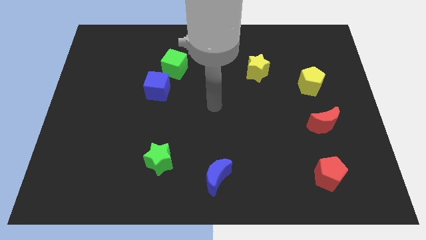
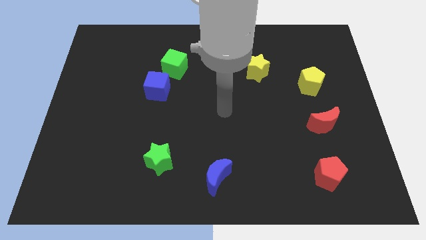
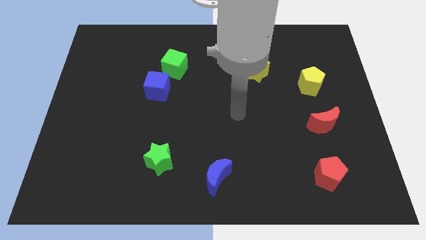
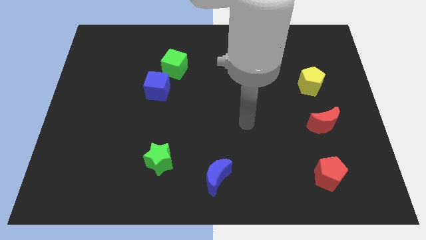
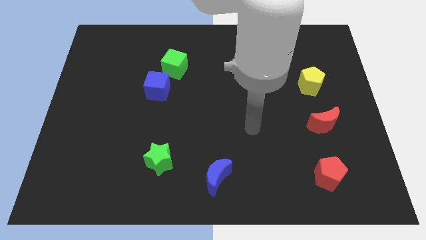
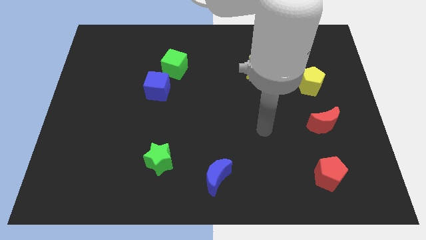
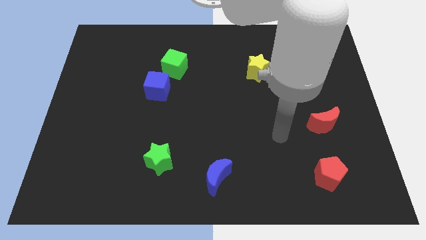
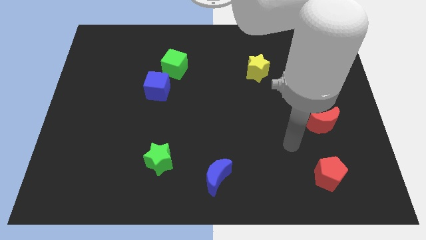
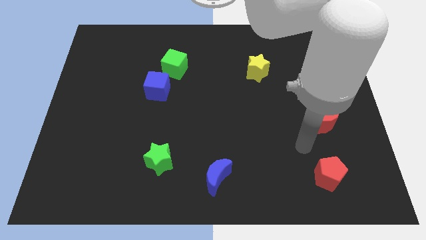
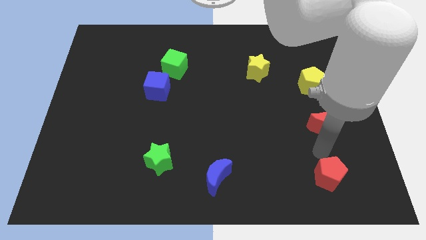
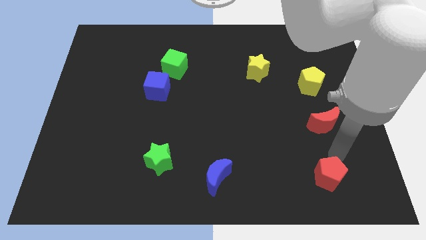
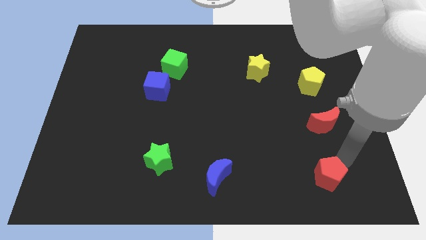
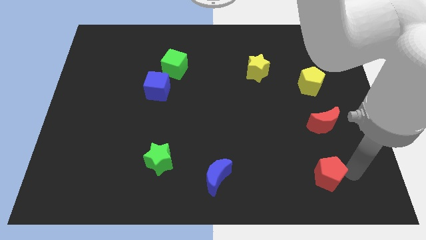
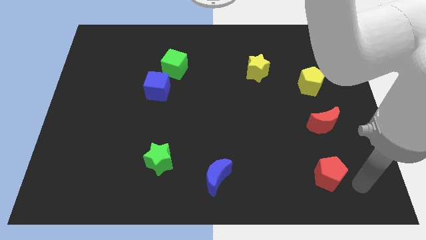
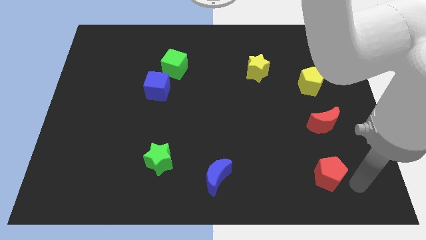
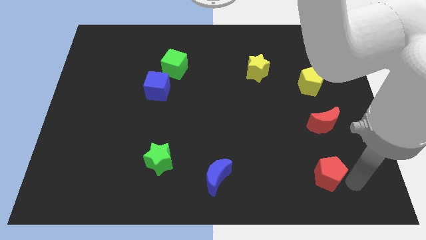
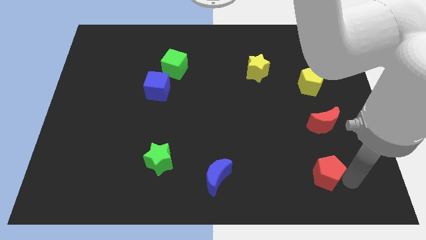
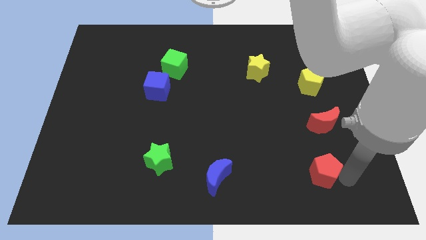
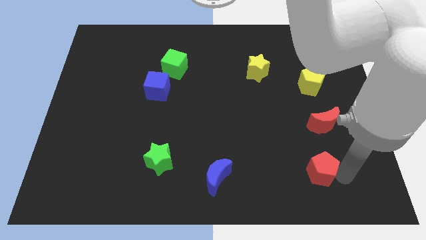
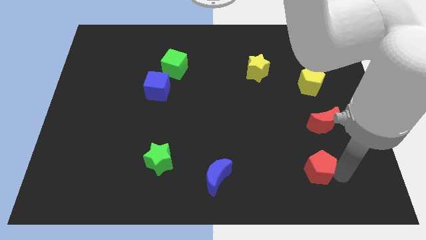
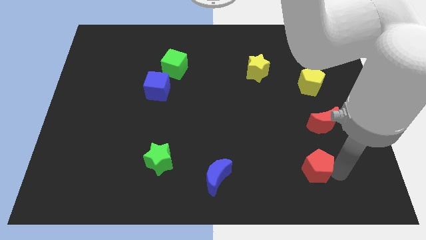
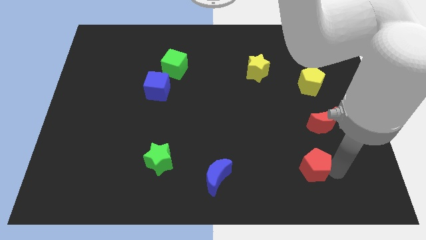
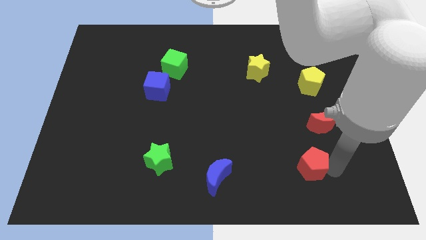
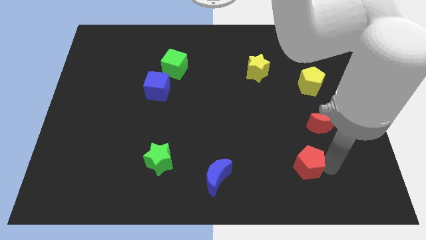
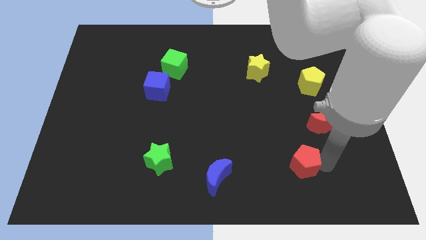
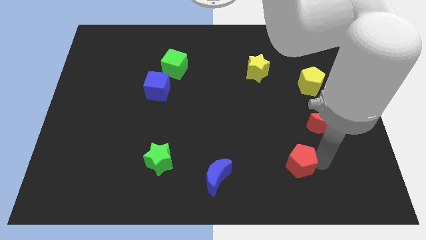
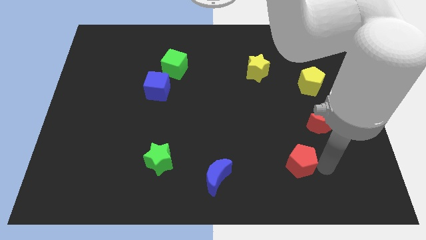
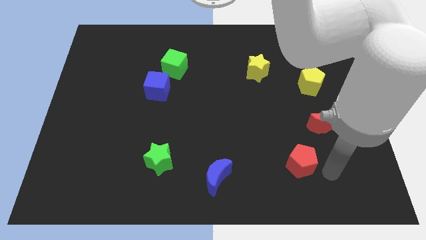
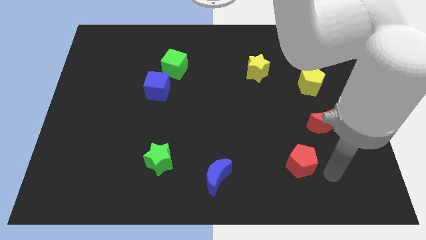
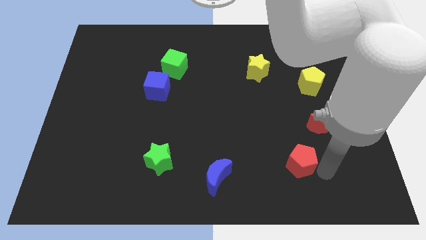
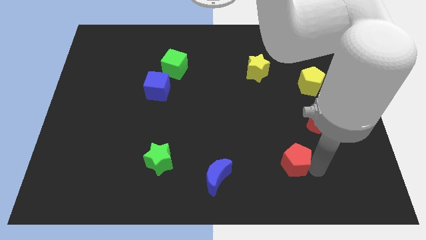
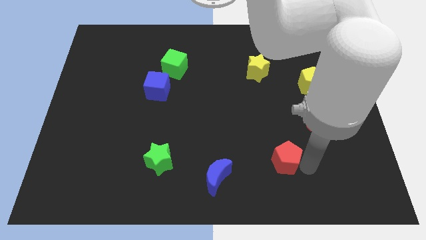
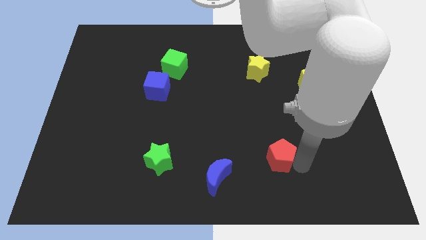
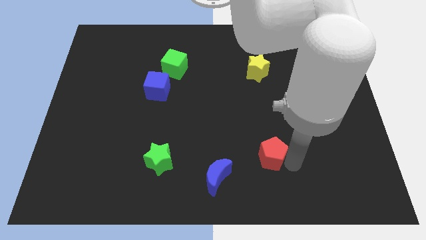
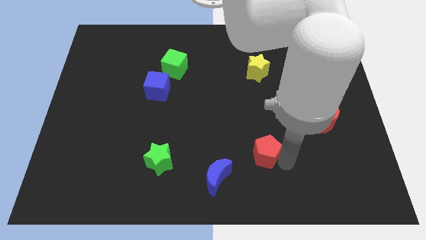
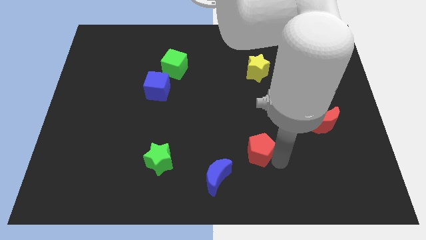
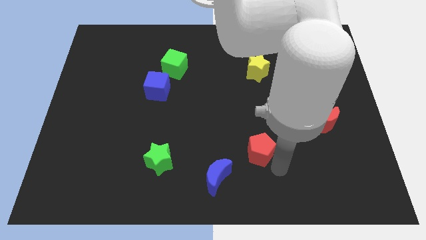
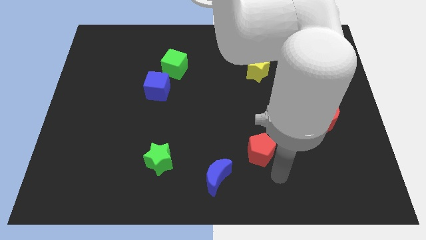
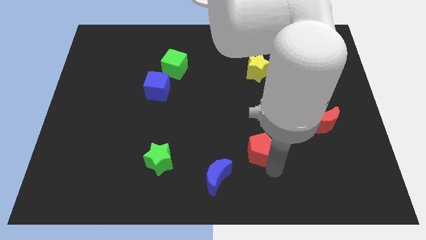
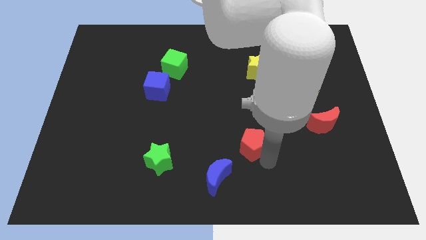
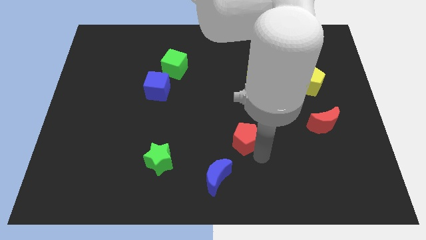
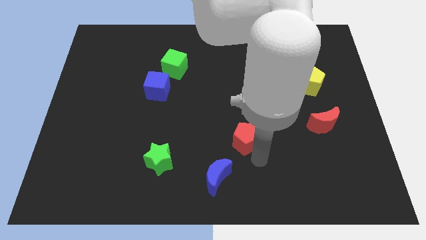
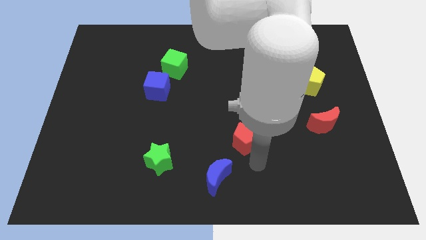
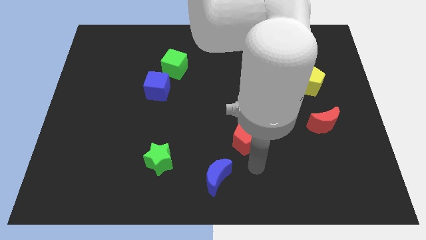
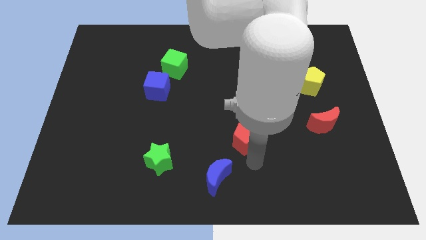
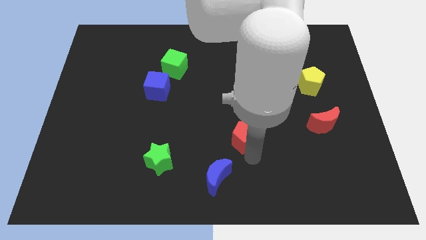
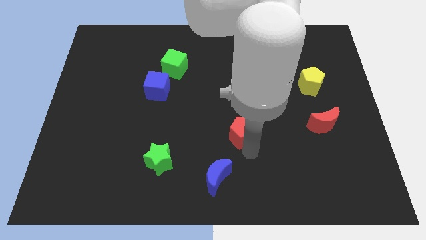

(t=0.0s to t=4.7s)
put the red pentagon to the middle

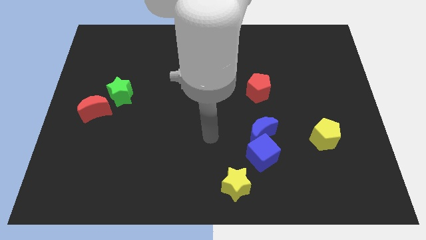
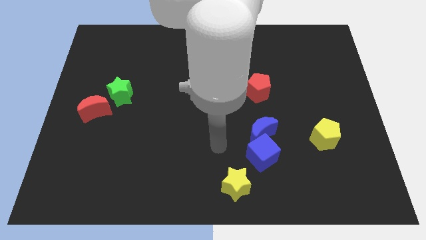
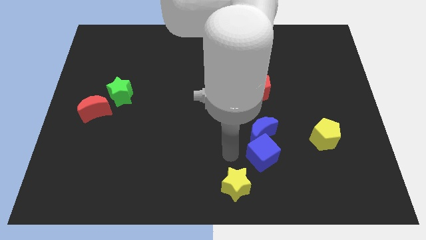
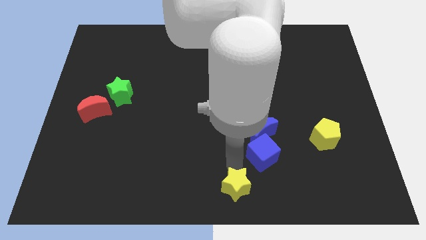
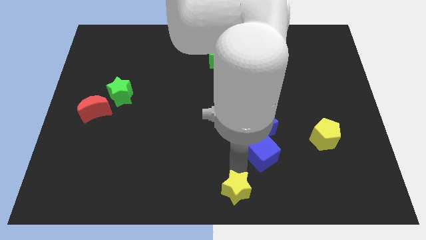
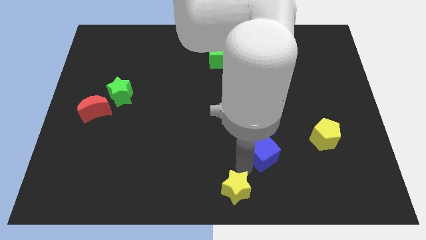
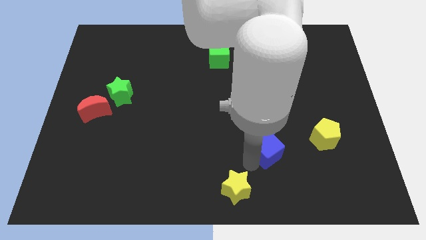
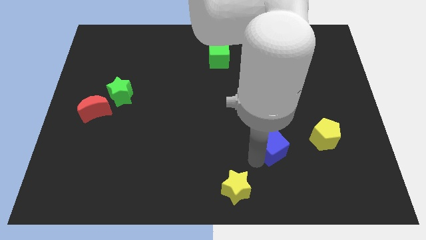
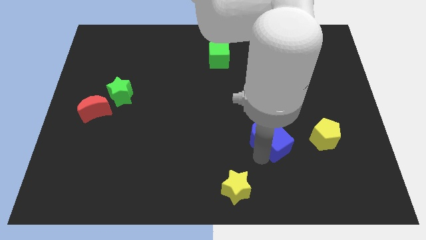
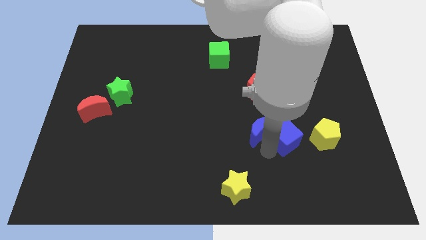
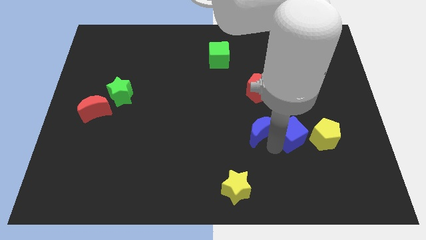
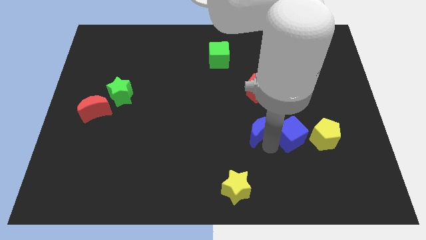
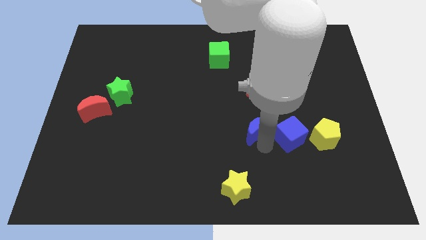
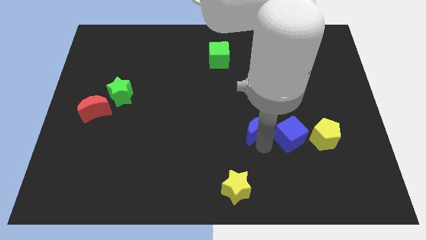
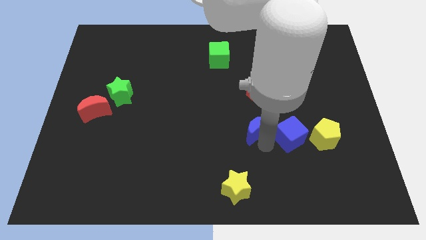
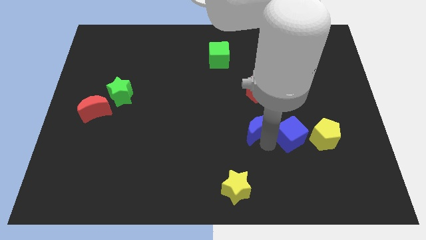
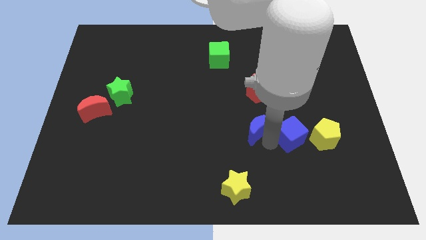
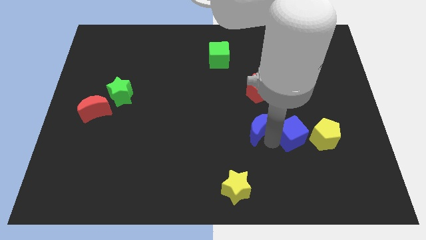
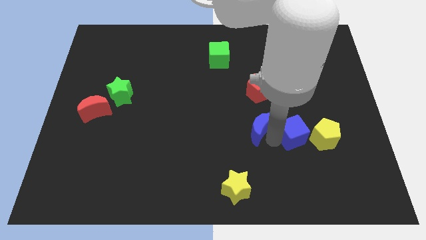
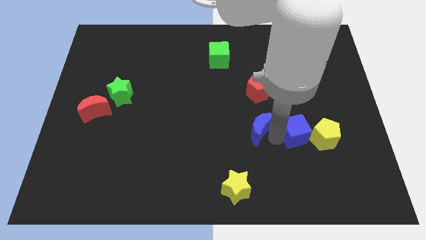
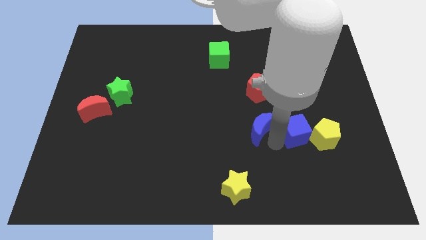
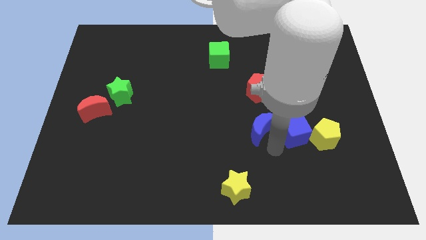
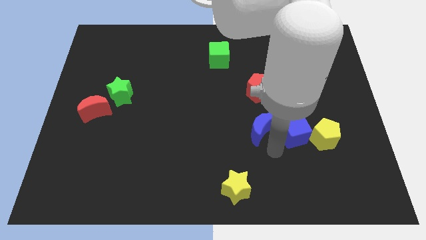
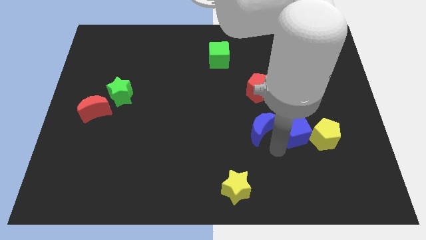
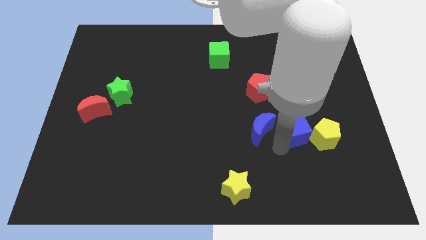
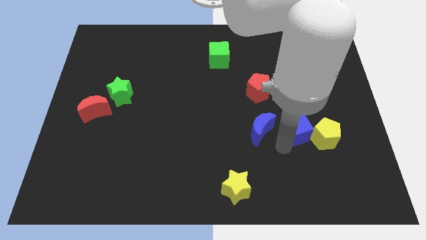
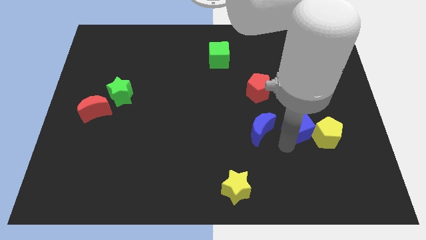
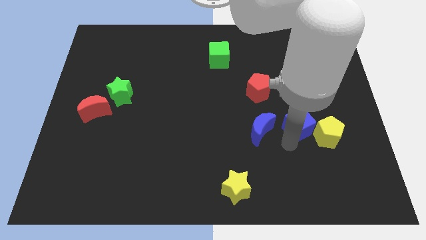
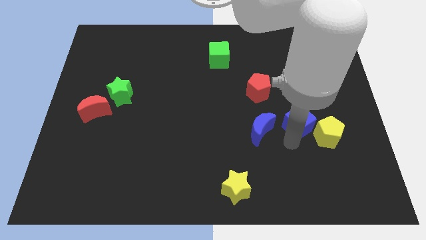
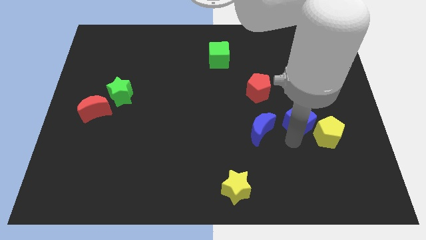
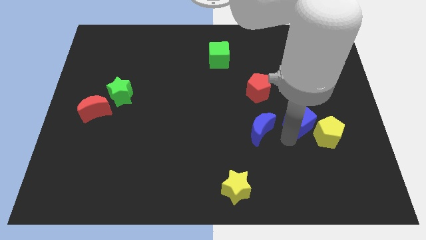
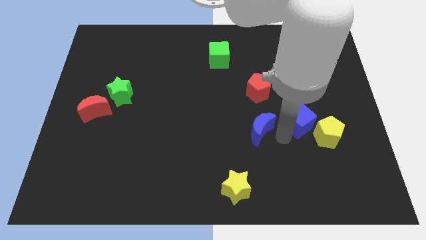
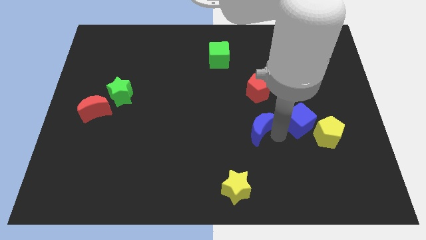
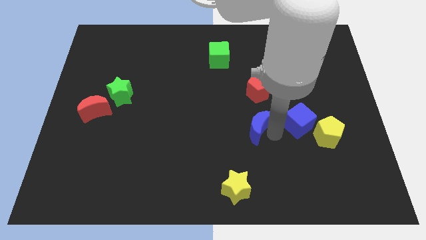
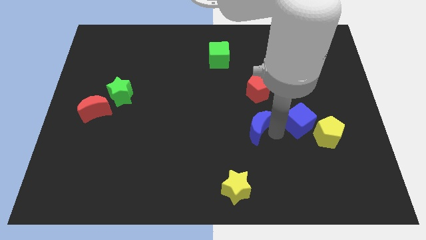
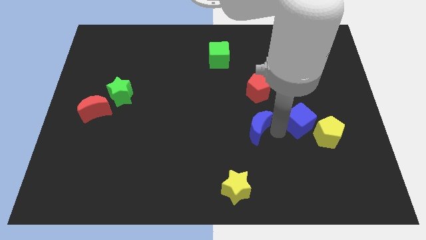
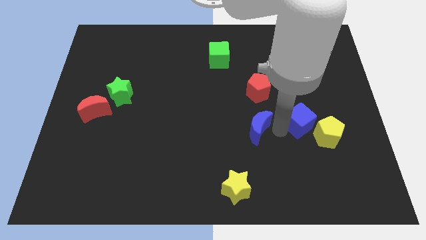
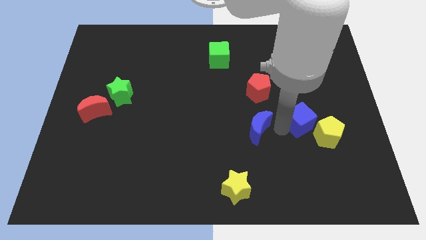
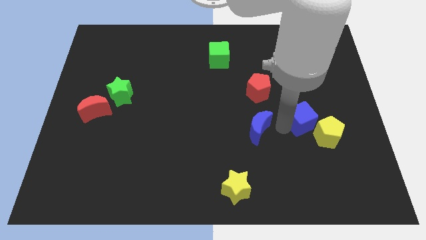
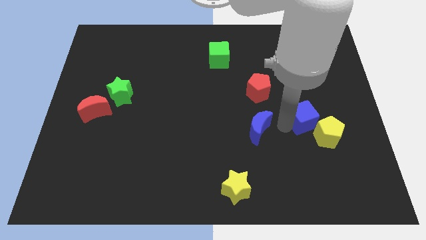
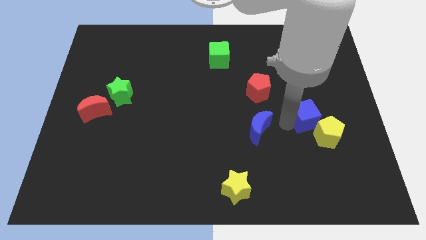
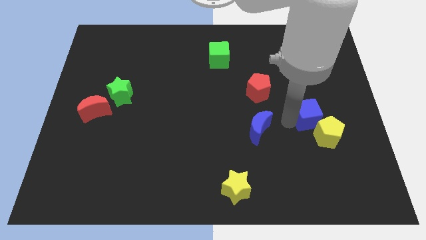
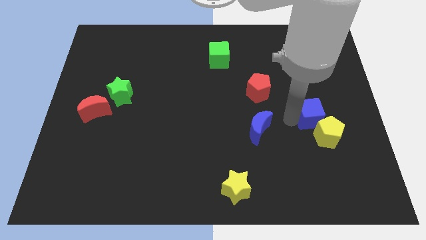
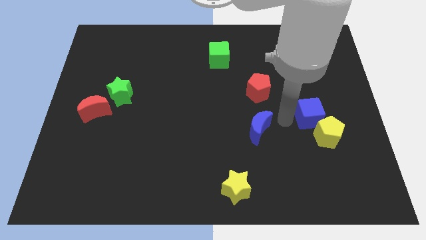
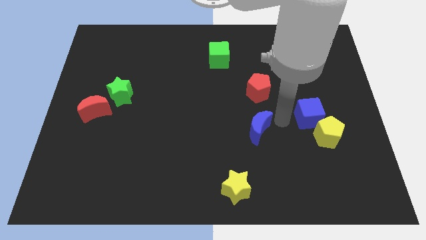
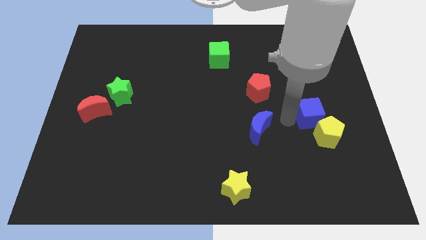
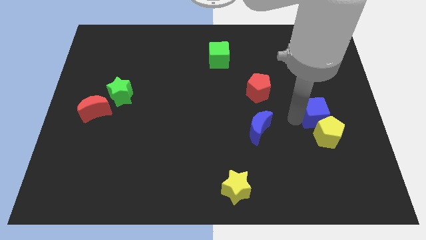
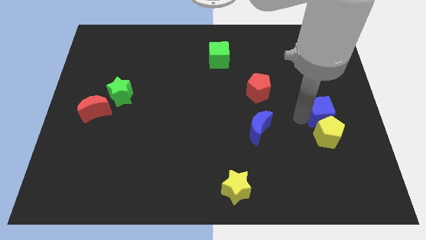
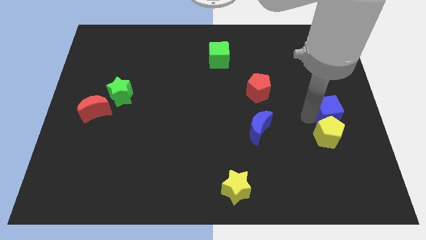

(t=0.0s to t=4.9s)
move the blue cube to the center right
